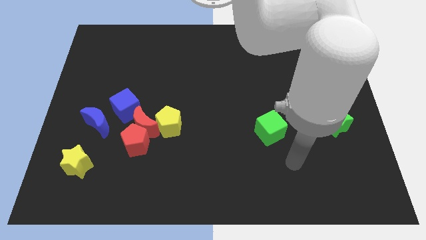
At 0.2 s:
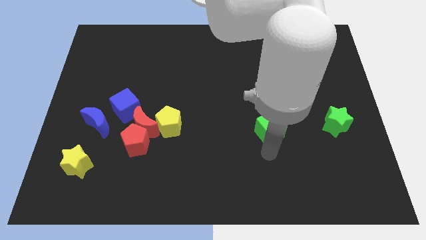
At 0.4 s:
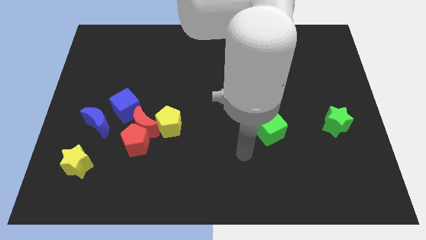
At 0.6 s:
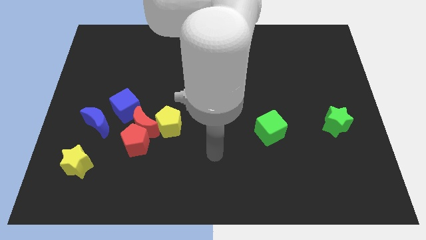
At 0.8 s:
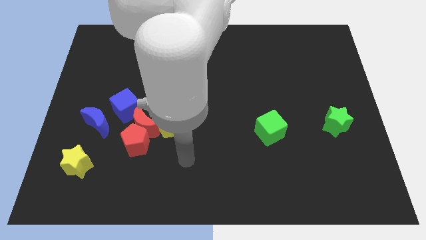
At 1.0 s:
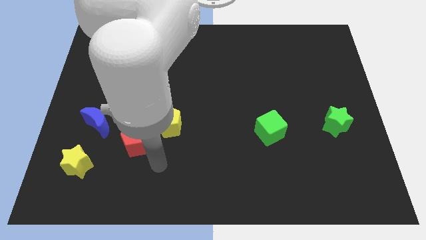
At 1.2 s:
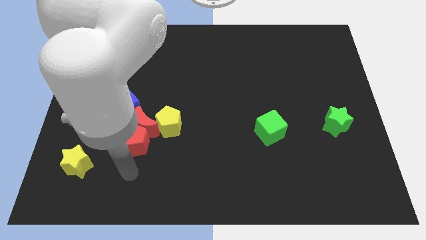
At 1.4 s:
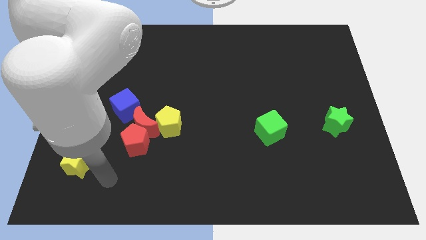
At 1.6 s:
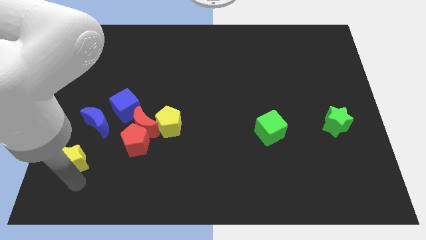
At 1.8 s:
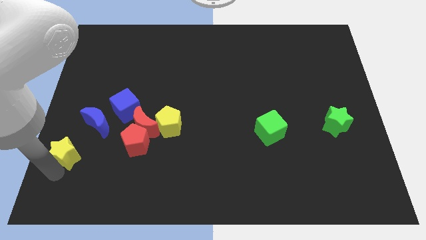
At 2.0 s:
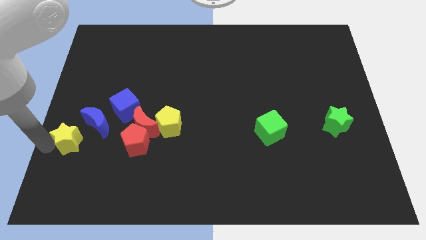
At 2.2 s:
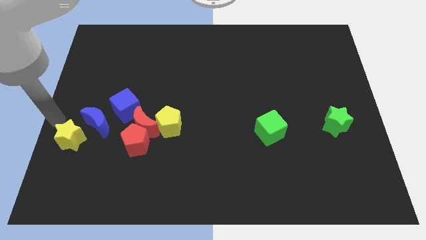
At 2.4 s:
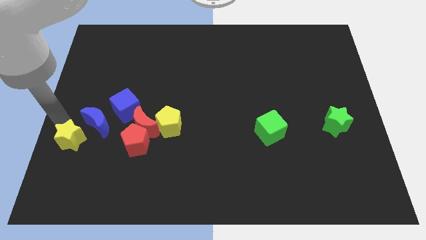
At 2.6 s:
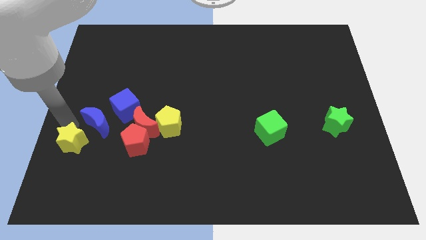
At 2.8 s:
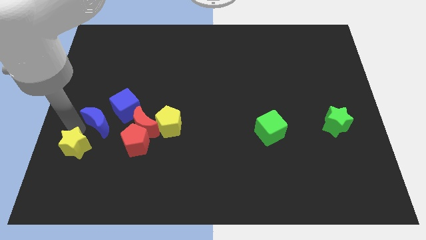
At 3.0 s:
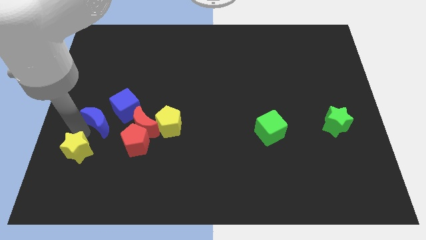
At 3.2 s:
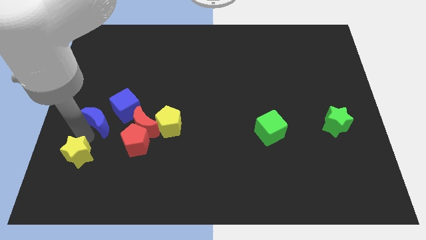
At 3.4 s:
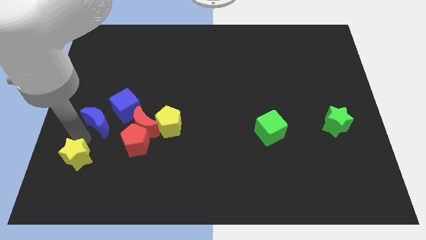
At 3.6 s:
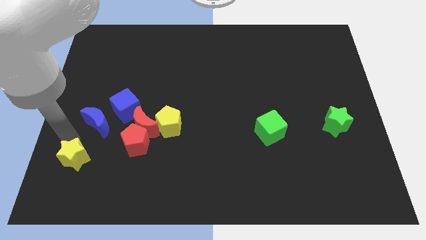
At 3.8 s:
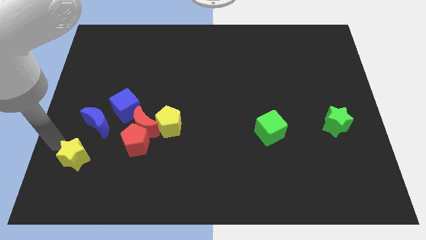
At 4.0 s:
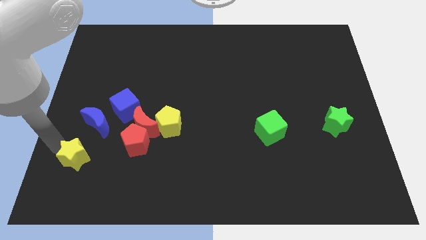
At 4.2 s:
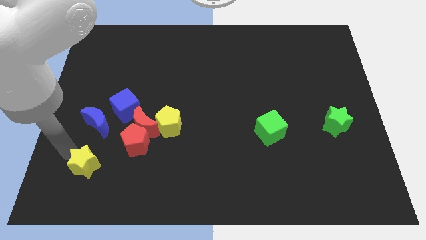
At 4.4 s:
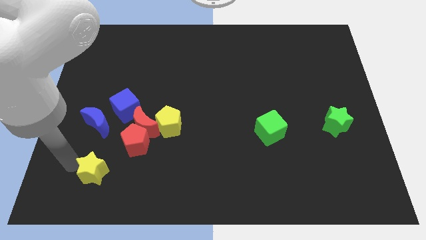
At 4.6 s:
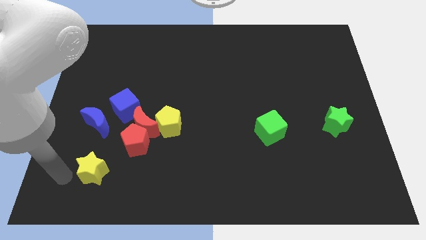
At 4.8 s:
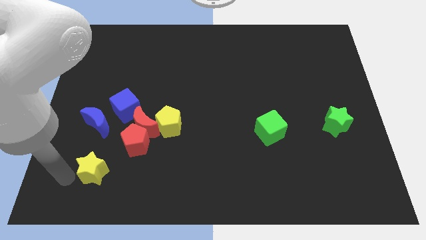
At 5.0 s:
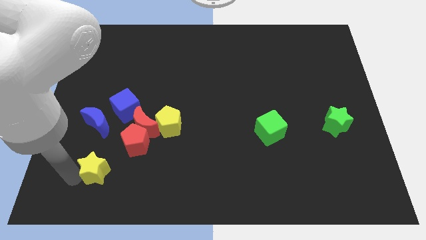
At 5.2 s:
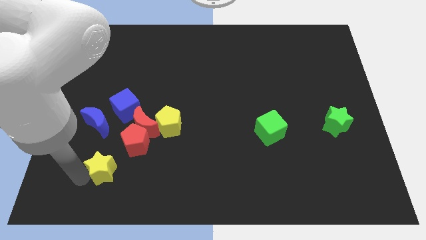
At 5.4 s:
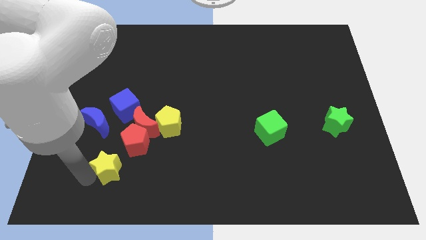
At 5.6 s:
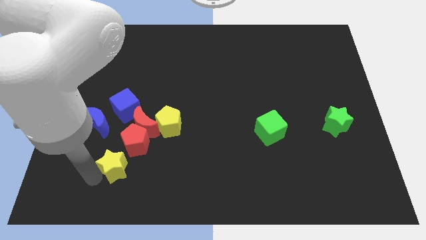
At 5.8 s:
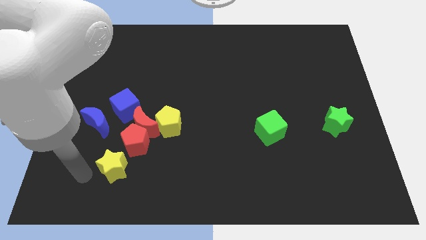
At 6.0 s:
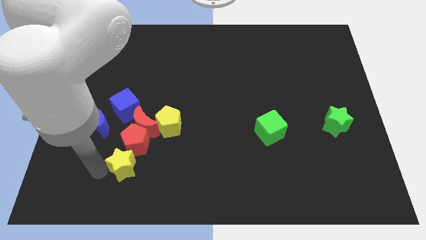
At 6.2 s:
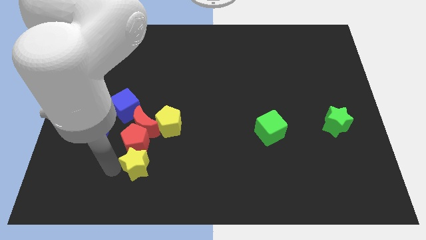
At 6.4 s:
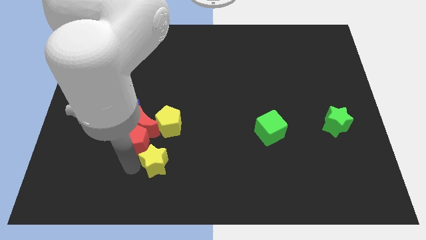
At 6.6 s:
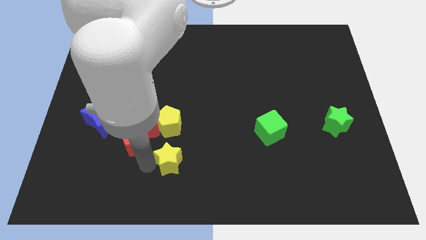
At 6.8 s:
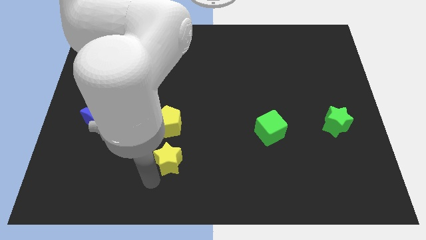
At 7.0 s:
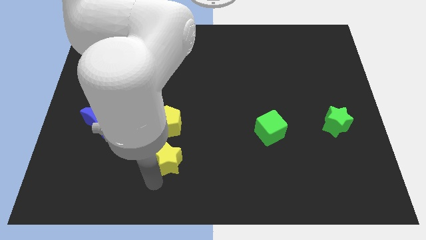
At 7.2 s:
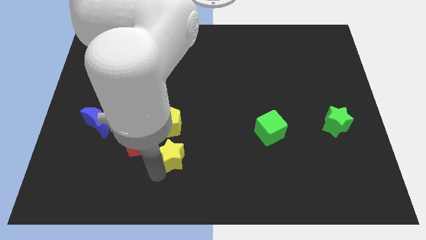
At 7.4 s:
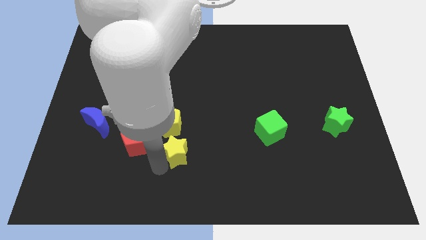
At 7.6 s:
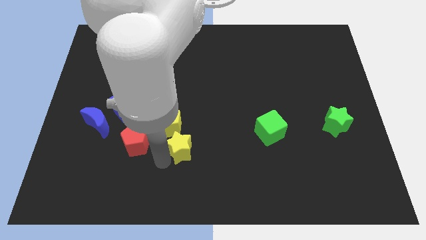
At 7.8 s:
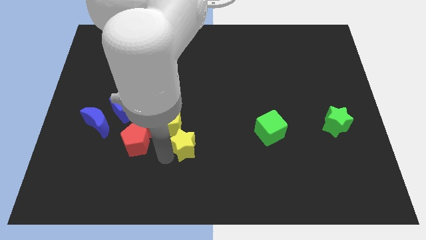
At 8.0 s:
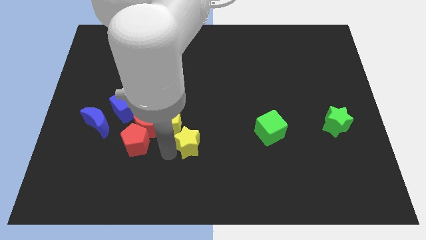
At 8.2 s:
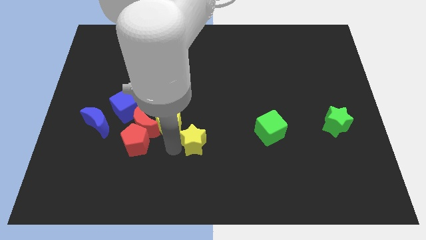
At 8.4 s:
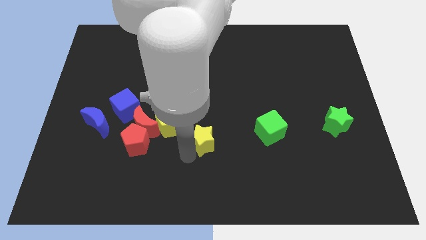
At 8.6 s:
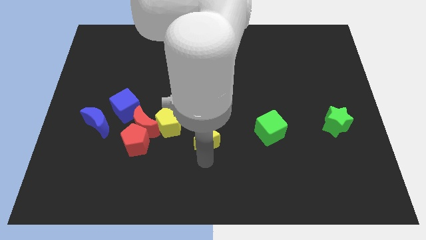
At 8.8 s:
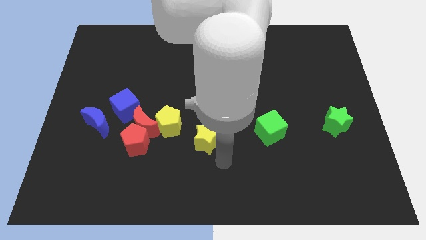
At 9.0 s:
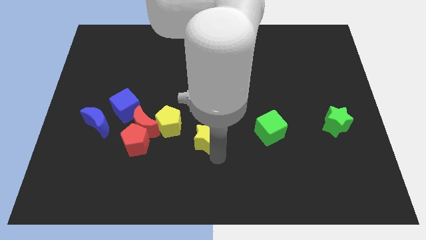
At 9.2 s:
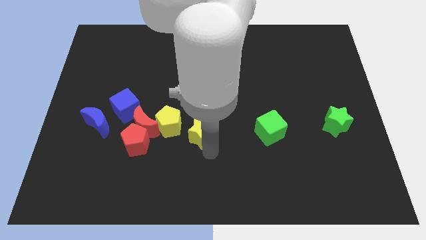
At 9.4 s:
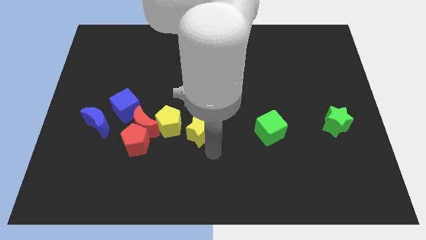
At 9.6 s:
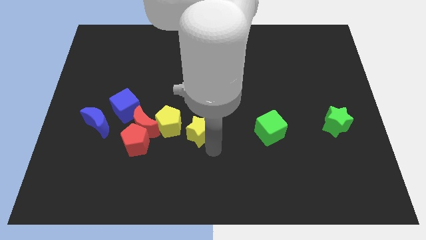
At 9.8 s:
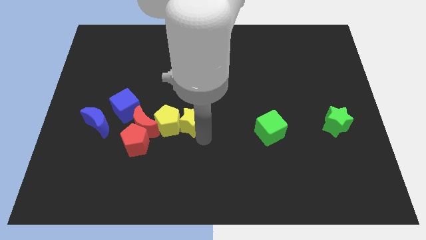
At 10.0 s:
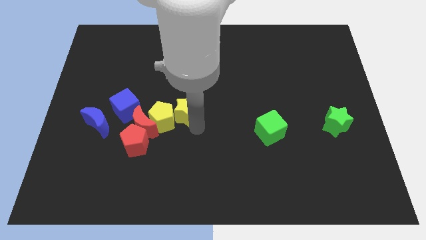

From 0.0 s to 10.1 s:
push the yellow star diagonally up and to the right of the red moon

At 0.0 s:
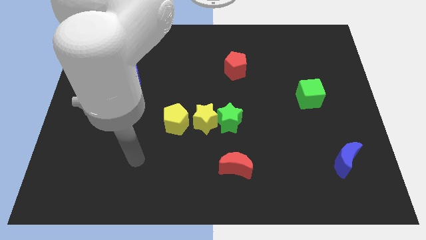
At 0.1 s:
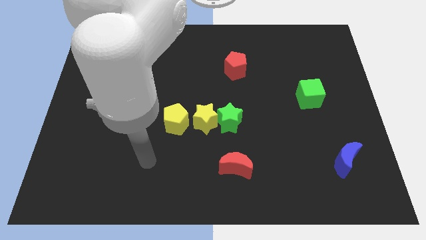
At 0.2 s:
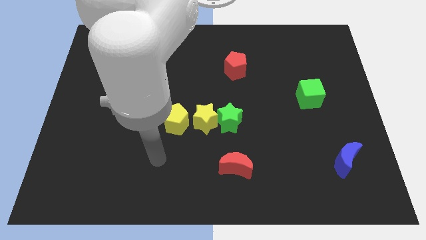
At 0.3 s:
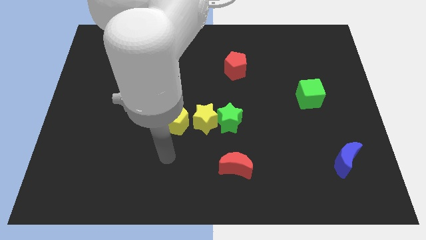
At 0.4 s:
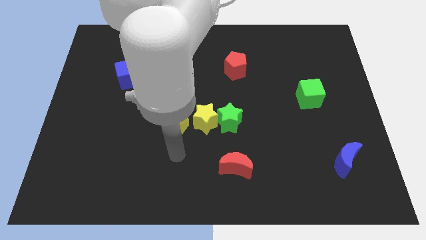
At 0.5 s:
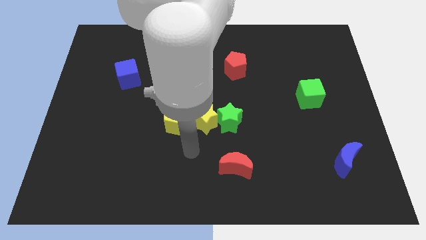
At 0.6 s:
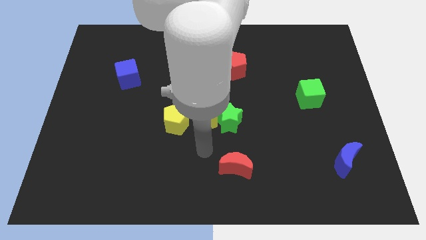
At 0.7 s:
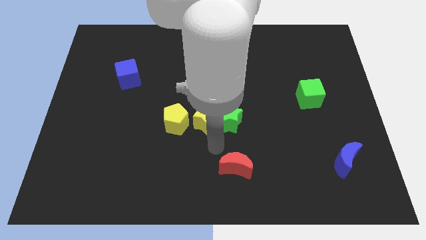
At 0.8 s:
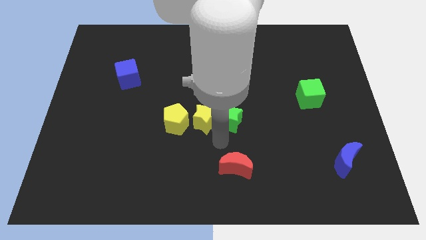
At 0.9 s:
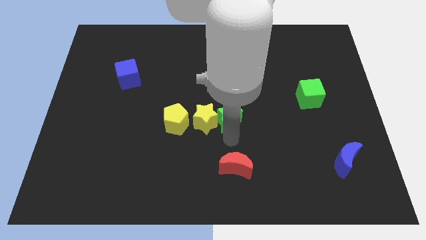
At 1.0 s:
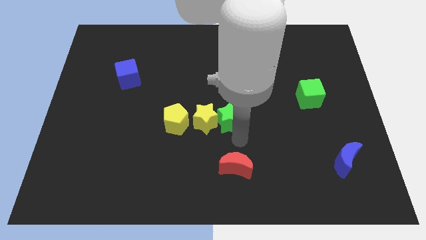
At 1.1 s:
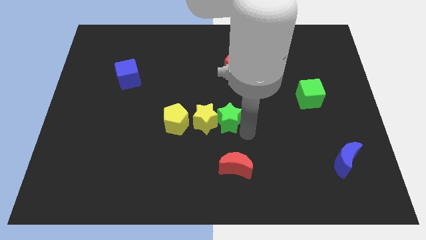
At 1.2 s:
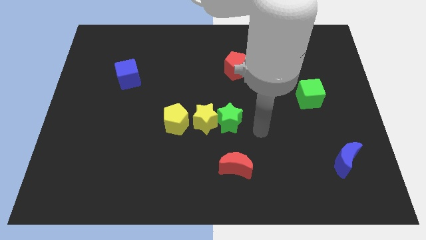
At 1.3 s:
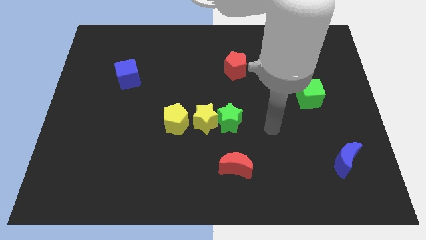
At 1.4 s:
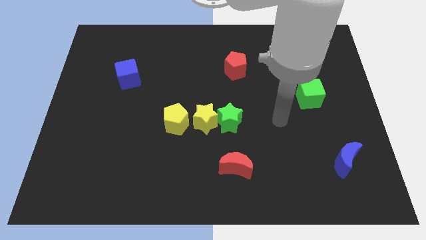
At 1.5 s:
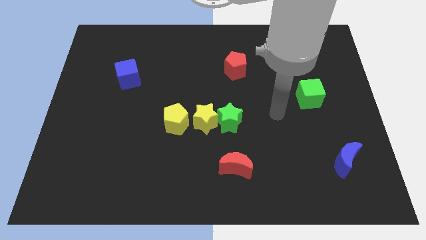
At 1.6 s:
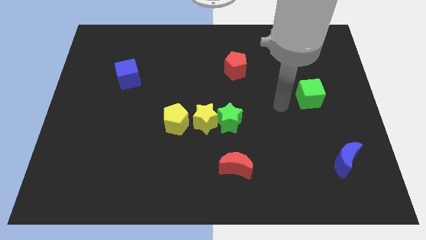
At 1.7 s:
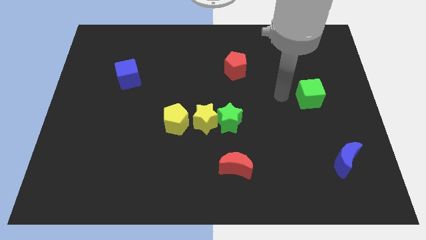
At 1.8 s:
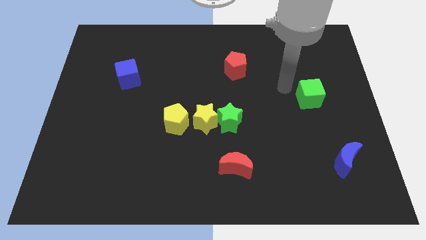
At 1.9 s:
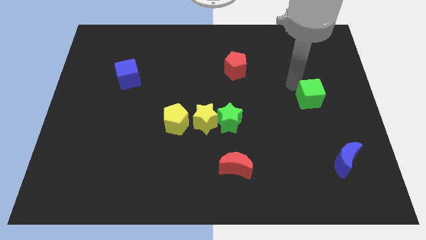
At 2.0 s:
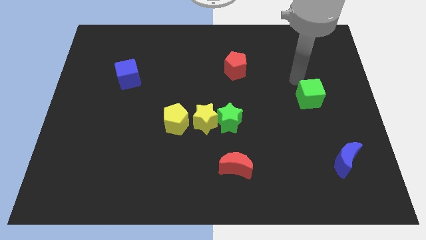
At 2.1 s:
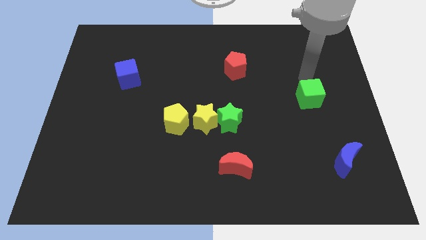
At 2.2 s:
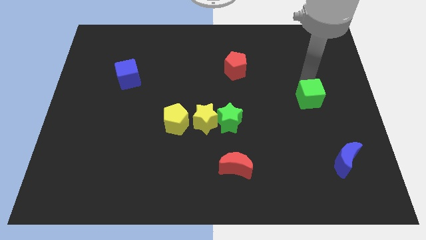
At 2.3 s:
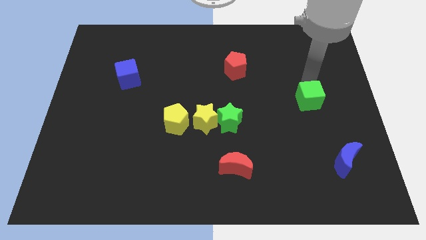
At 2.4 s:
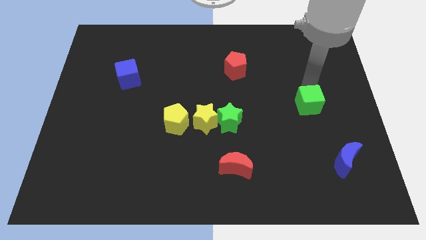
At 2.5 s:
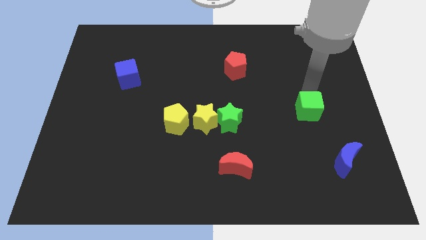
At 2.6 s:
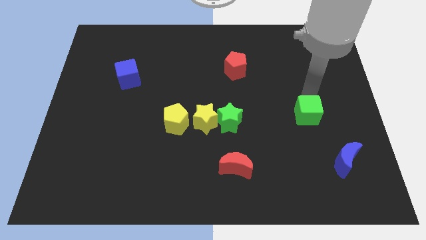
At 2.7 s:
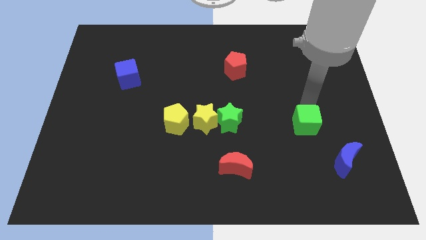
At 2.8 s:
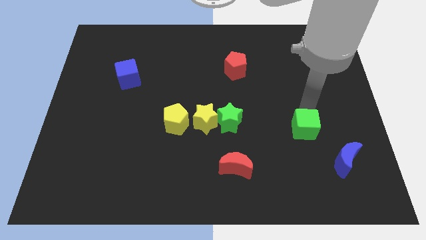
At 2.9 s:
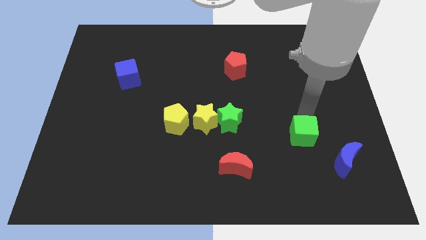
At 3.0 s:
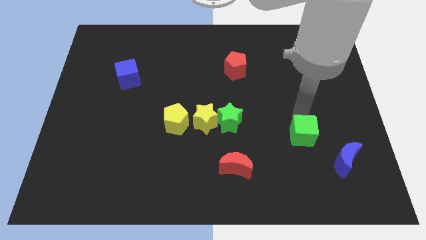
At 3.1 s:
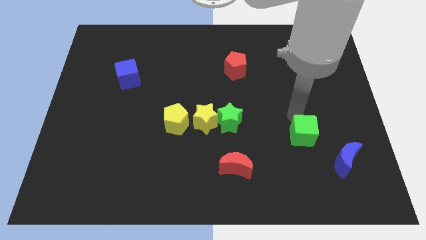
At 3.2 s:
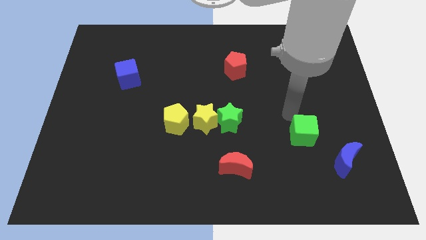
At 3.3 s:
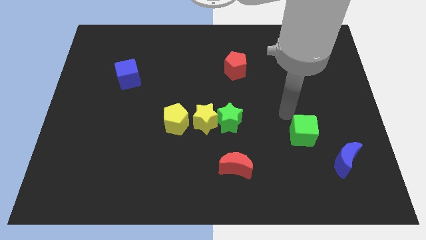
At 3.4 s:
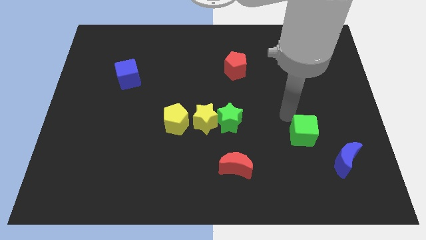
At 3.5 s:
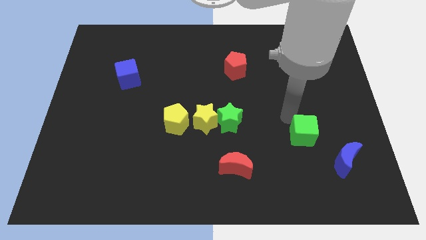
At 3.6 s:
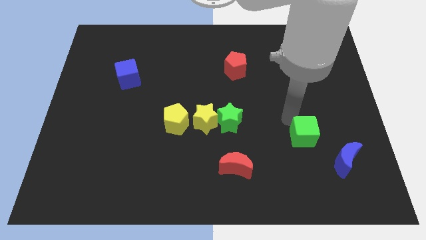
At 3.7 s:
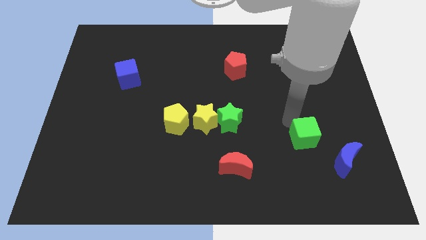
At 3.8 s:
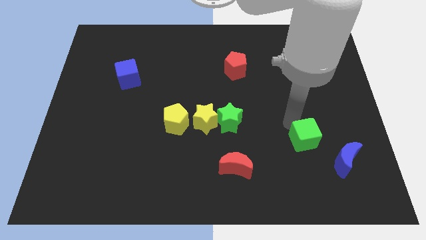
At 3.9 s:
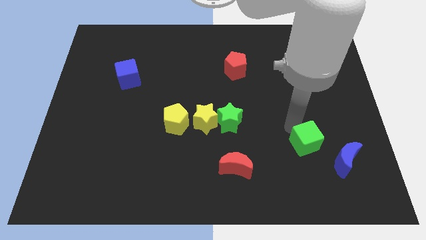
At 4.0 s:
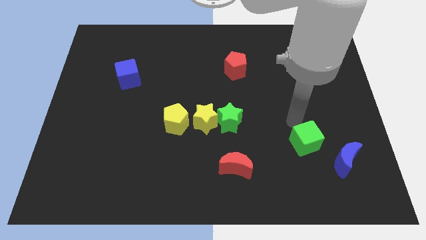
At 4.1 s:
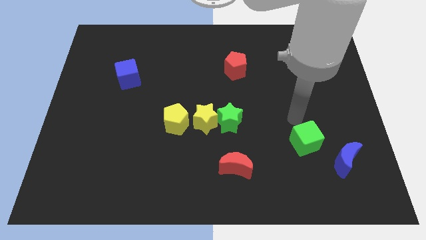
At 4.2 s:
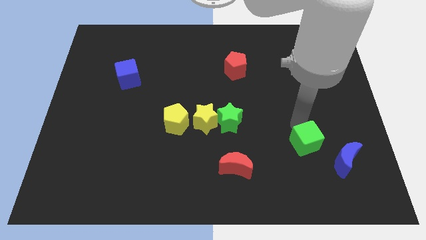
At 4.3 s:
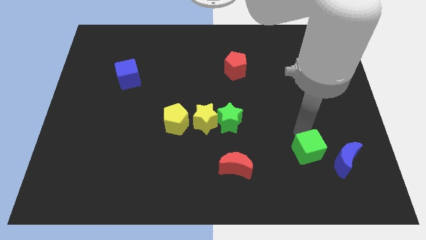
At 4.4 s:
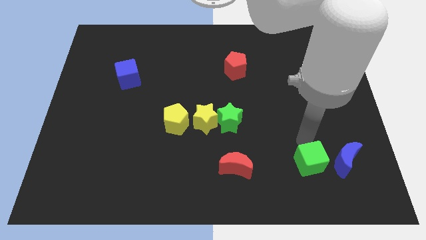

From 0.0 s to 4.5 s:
move the green cube diagonally down and to the left of the blue moon
